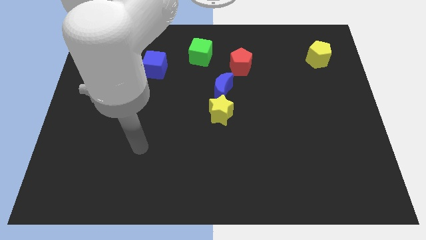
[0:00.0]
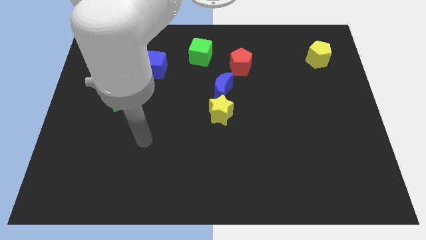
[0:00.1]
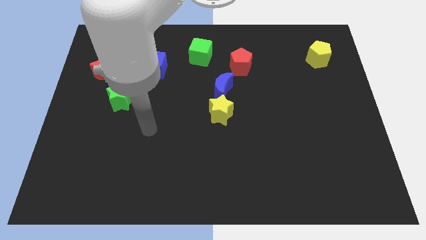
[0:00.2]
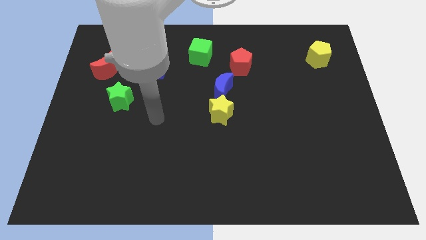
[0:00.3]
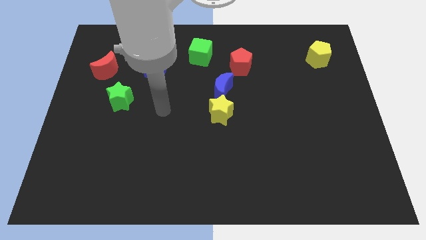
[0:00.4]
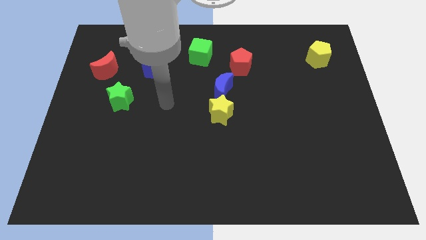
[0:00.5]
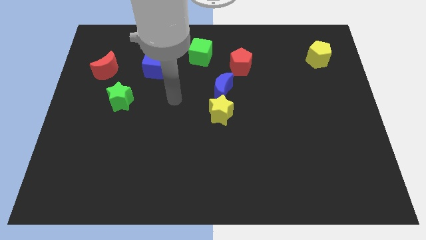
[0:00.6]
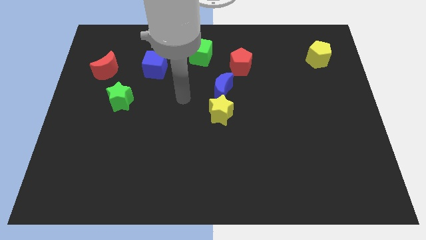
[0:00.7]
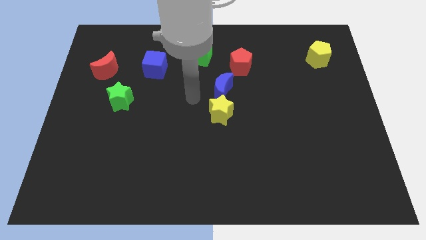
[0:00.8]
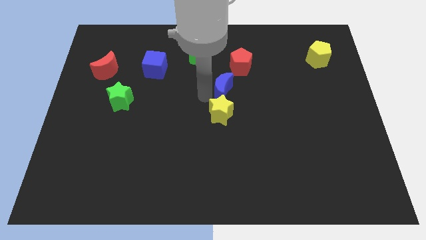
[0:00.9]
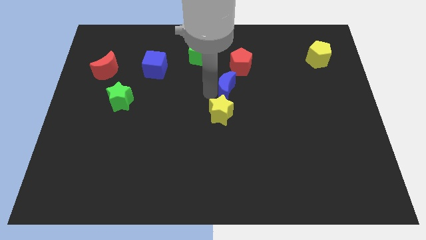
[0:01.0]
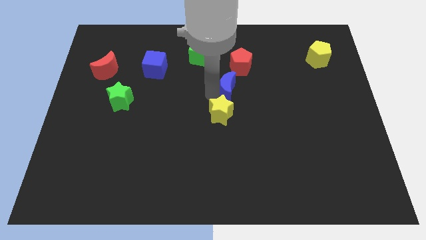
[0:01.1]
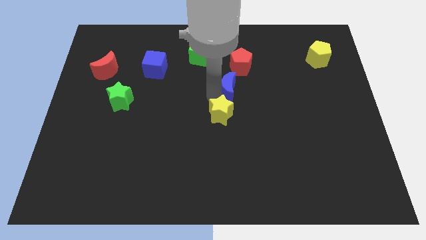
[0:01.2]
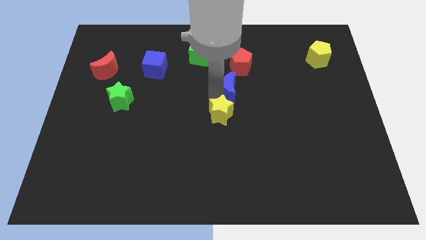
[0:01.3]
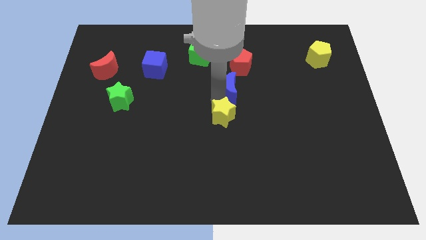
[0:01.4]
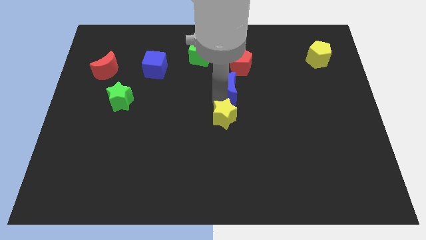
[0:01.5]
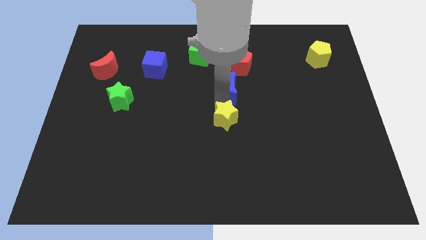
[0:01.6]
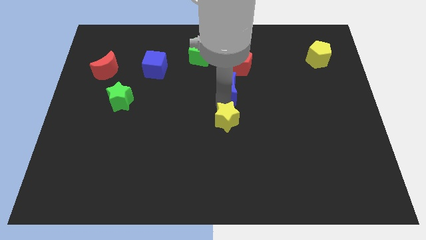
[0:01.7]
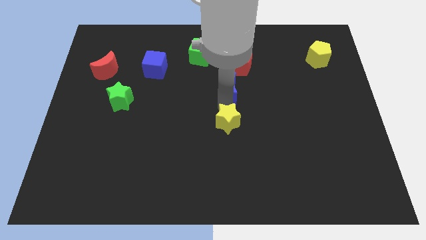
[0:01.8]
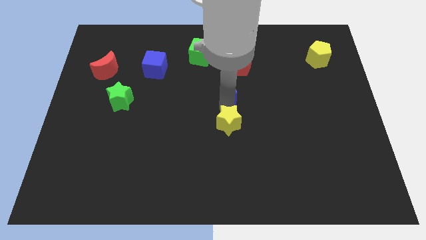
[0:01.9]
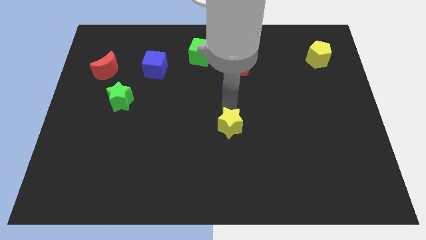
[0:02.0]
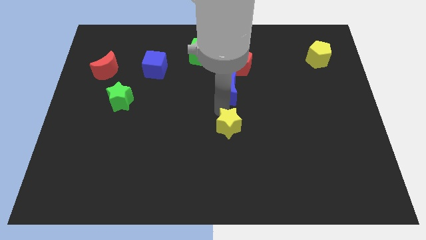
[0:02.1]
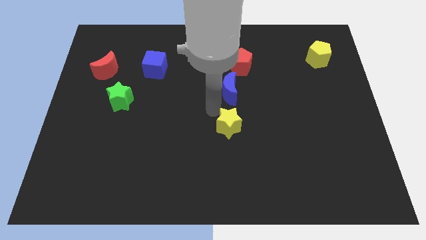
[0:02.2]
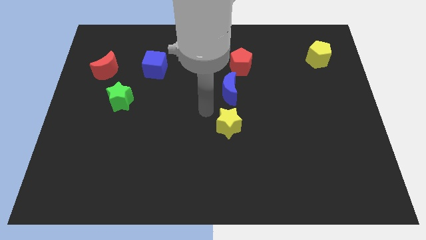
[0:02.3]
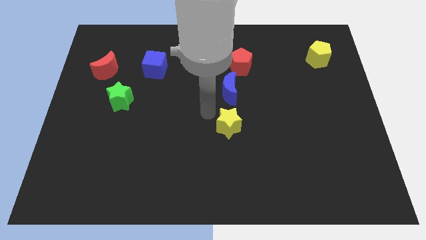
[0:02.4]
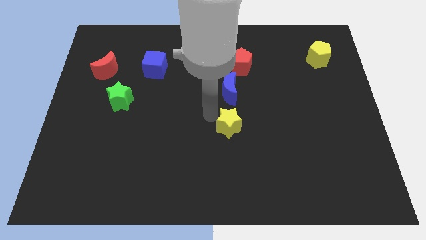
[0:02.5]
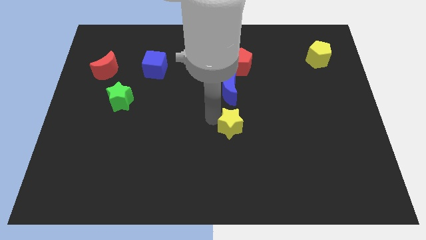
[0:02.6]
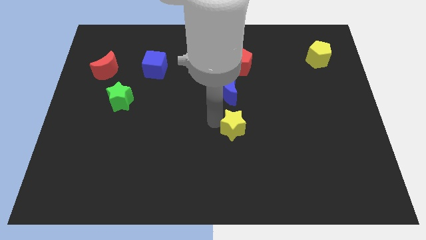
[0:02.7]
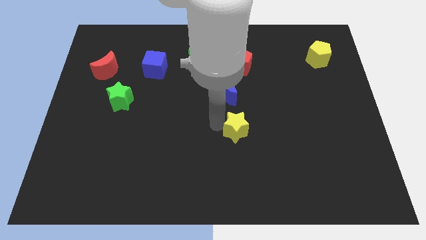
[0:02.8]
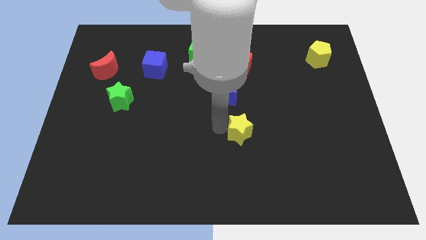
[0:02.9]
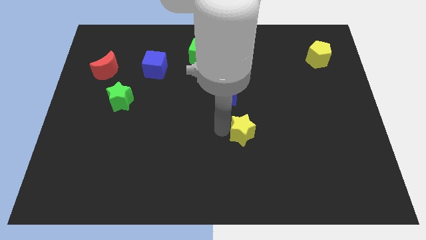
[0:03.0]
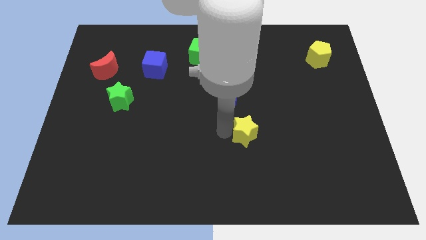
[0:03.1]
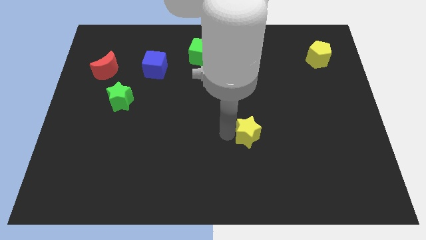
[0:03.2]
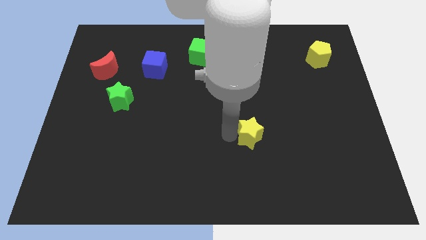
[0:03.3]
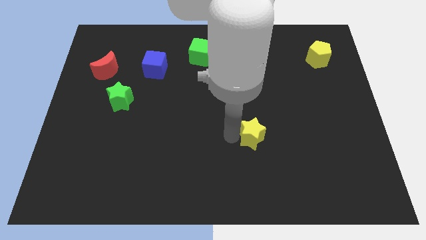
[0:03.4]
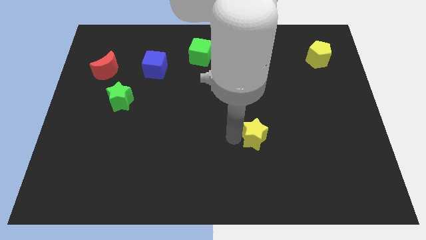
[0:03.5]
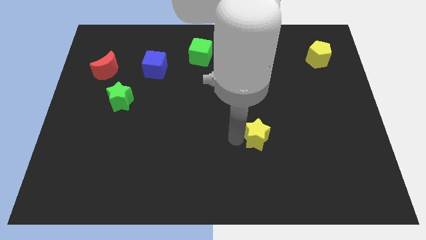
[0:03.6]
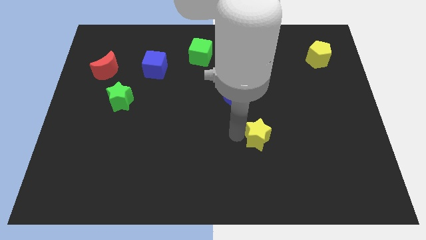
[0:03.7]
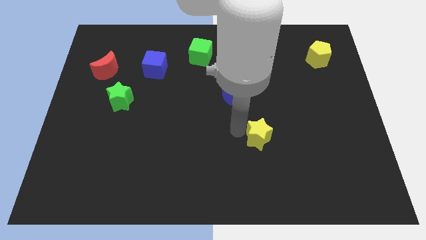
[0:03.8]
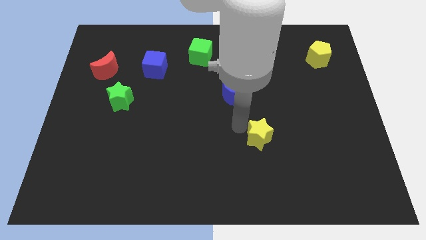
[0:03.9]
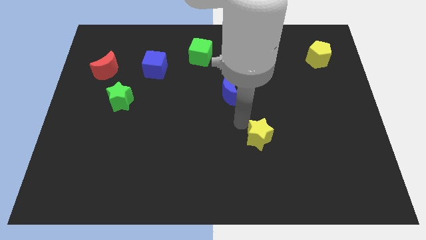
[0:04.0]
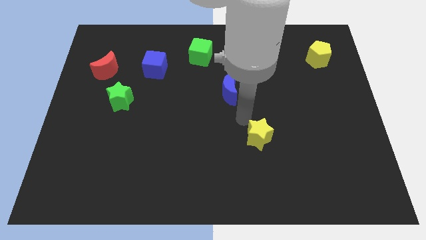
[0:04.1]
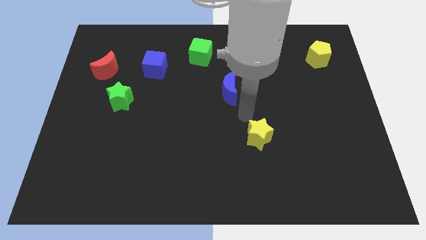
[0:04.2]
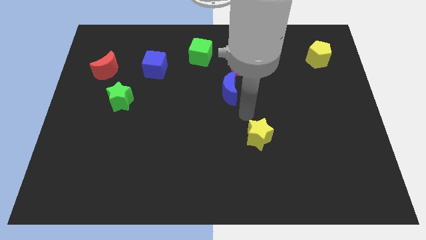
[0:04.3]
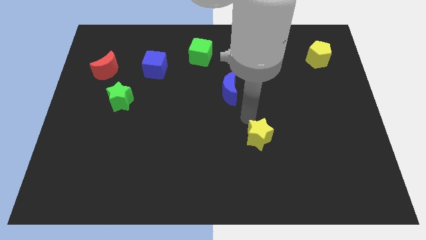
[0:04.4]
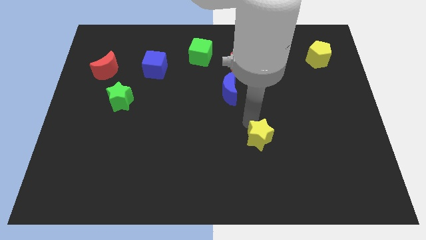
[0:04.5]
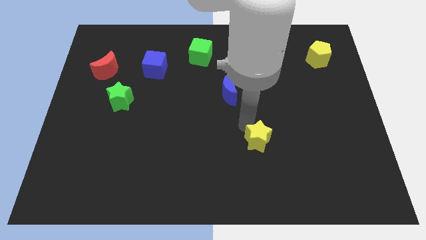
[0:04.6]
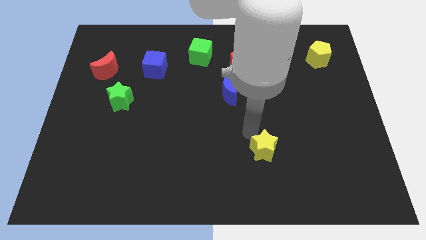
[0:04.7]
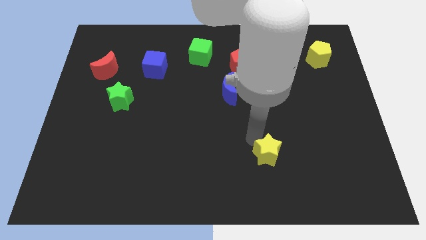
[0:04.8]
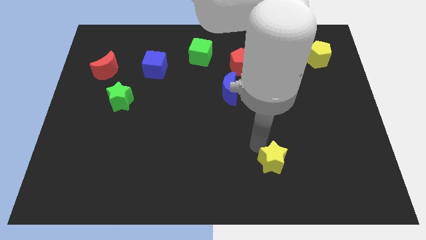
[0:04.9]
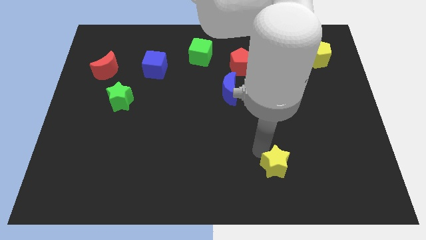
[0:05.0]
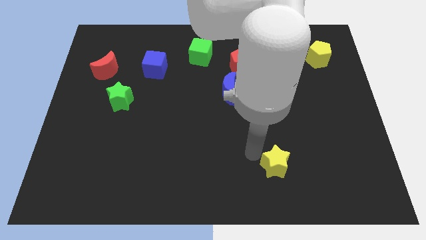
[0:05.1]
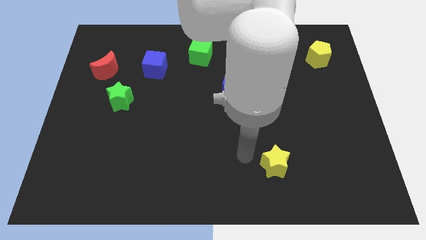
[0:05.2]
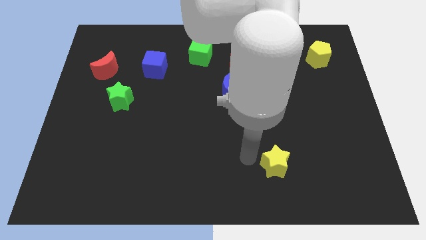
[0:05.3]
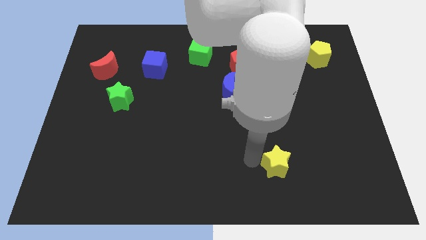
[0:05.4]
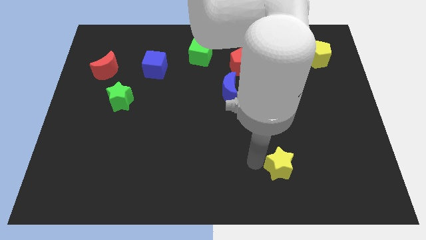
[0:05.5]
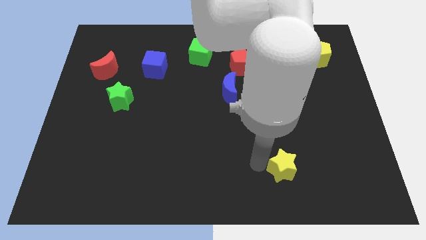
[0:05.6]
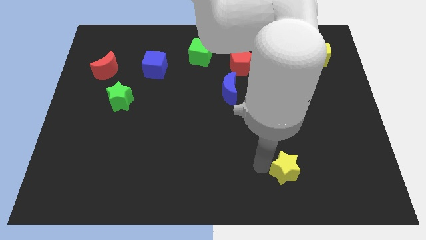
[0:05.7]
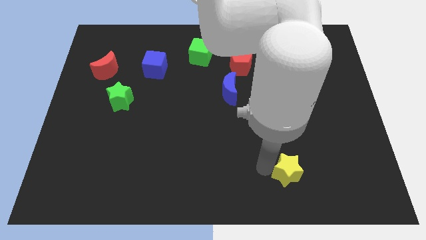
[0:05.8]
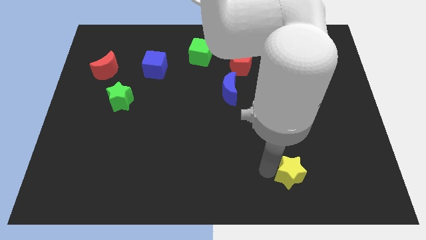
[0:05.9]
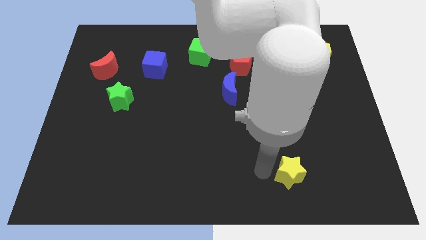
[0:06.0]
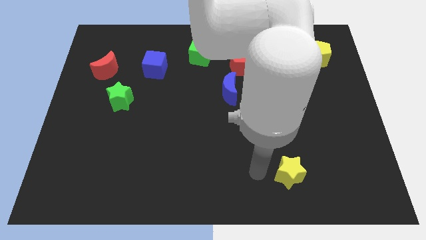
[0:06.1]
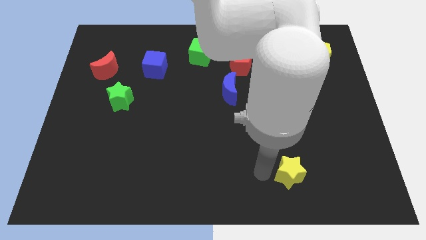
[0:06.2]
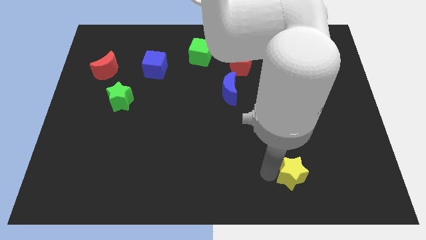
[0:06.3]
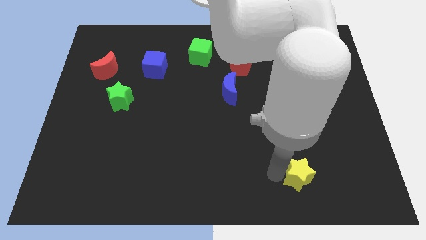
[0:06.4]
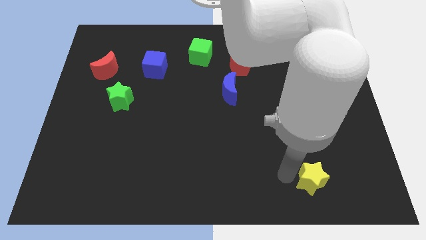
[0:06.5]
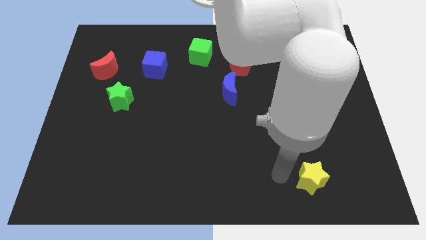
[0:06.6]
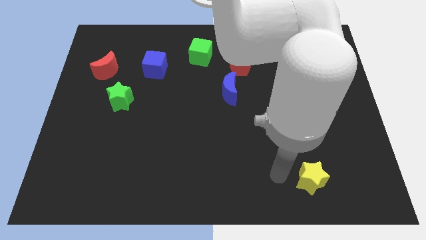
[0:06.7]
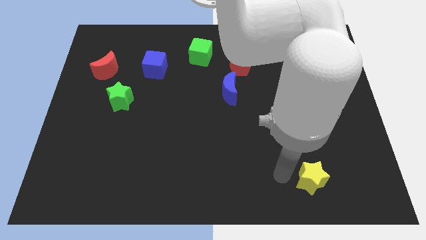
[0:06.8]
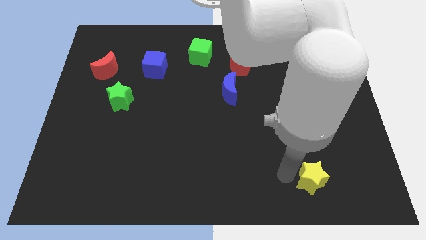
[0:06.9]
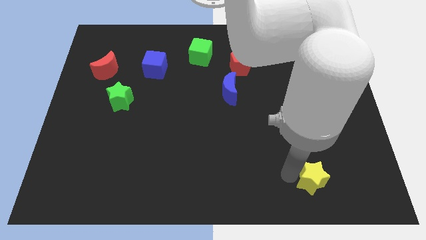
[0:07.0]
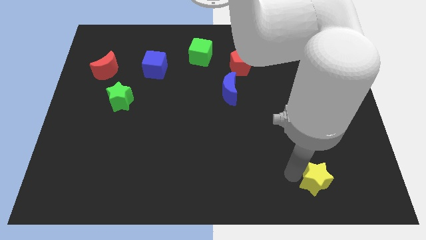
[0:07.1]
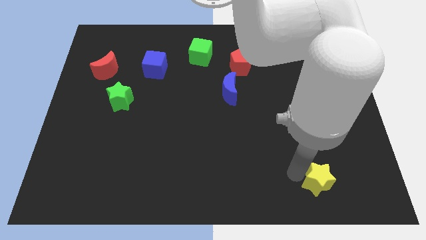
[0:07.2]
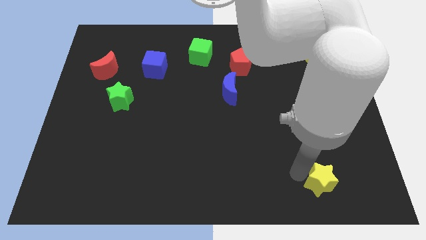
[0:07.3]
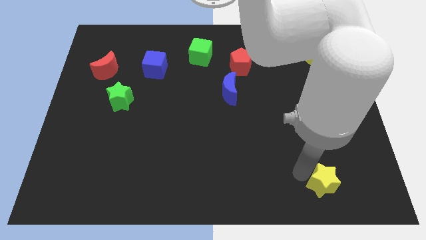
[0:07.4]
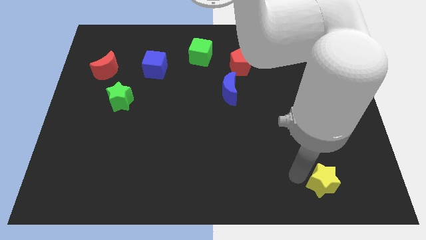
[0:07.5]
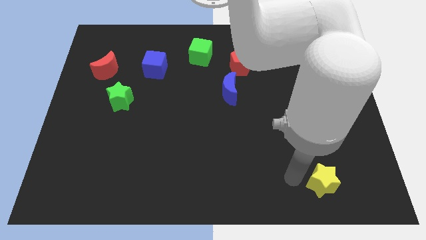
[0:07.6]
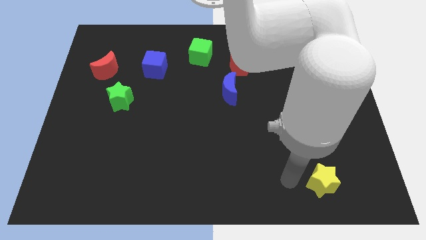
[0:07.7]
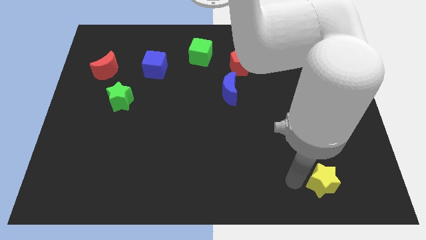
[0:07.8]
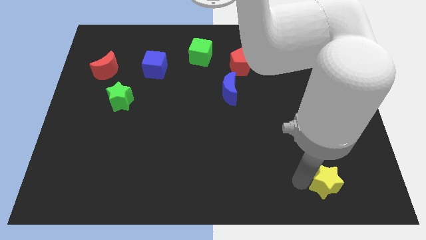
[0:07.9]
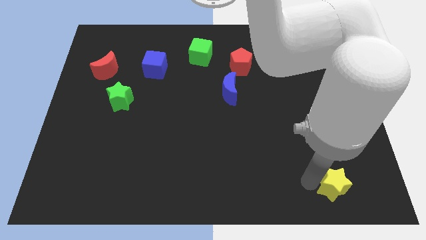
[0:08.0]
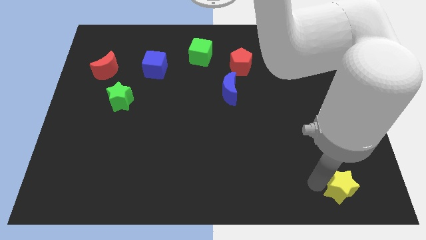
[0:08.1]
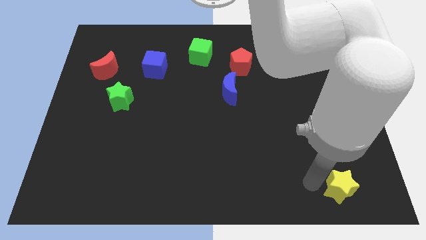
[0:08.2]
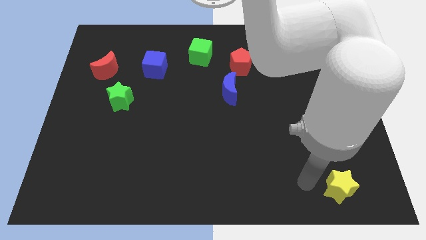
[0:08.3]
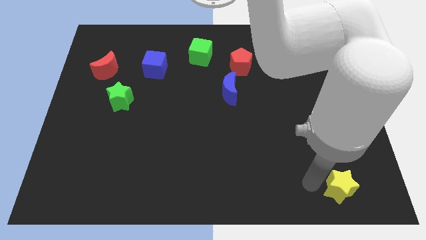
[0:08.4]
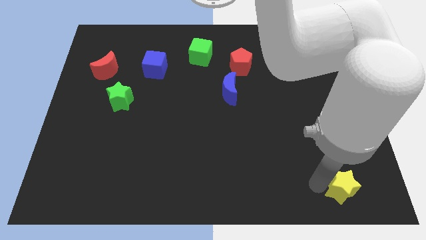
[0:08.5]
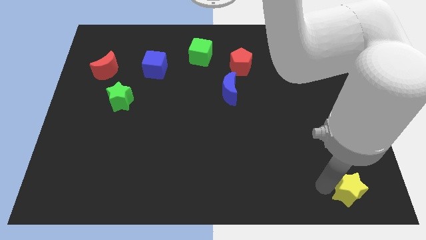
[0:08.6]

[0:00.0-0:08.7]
put the yellow star to the bottom right of the board
